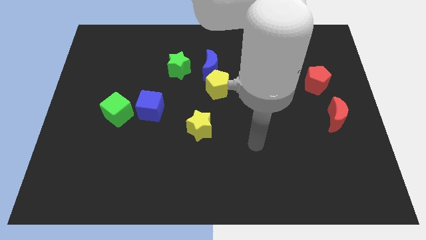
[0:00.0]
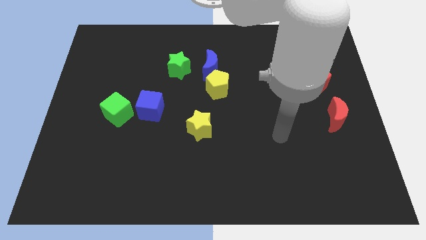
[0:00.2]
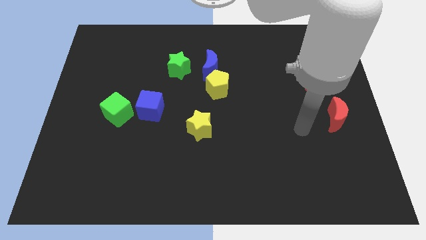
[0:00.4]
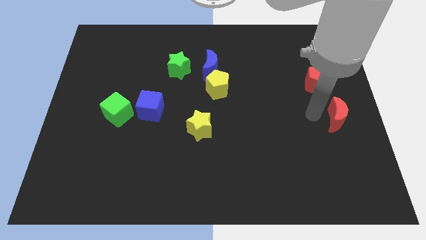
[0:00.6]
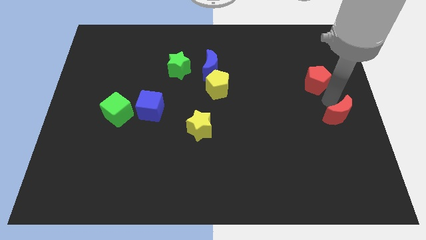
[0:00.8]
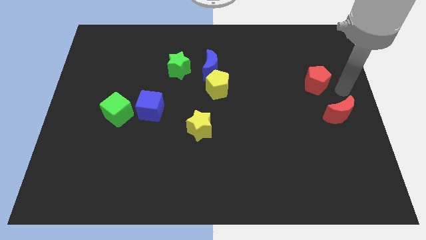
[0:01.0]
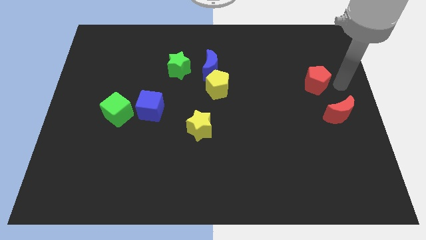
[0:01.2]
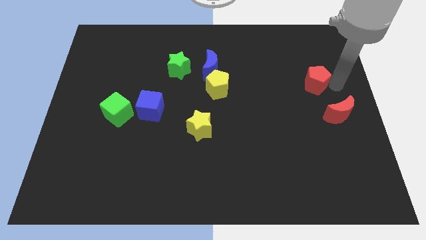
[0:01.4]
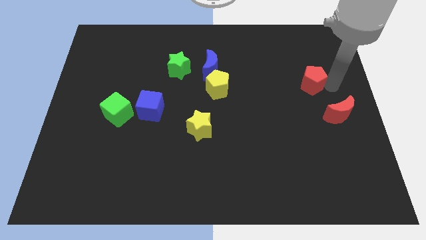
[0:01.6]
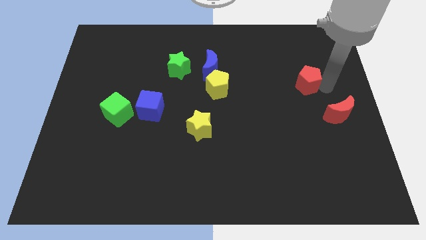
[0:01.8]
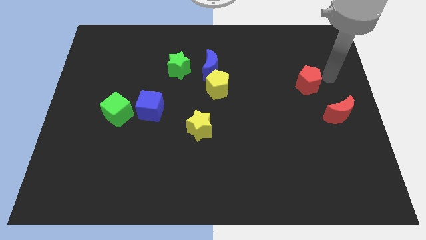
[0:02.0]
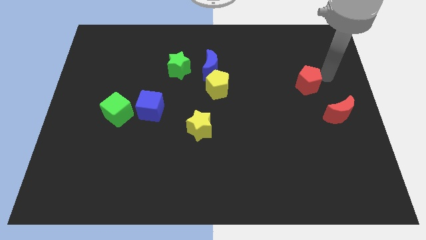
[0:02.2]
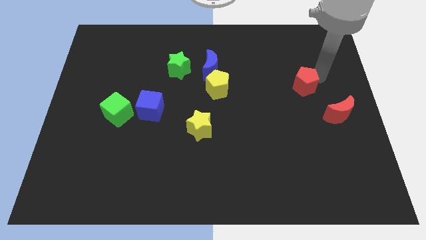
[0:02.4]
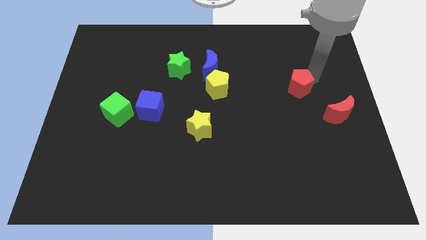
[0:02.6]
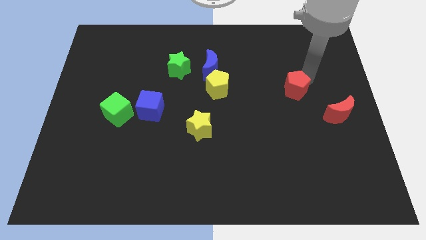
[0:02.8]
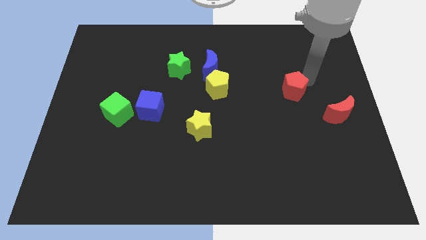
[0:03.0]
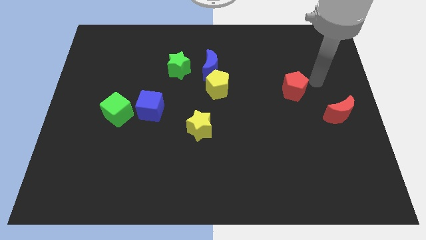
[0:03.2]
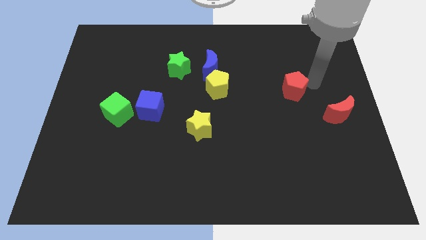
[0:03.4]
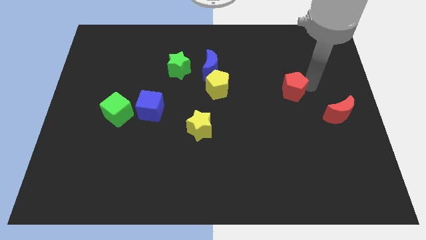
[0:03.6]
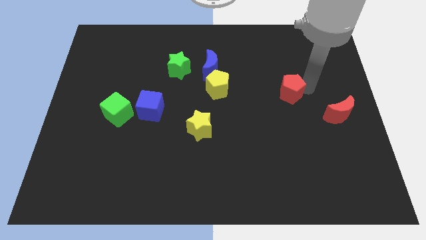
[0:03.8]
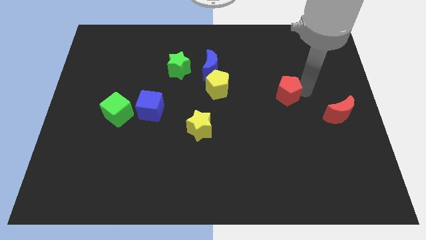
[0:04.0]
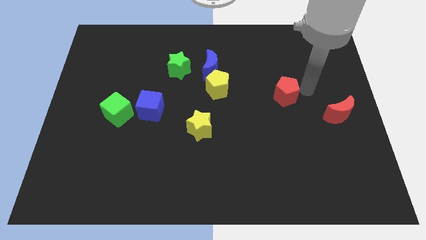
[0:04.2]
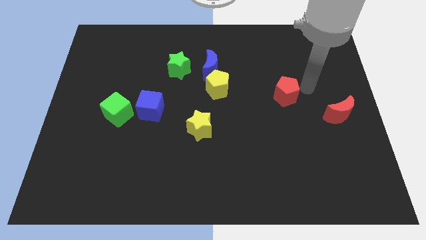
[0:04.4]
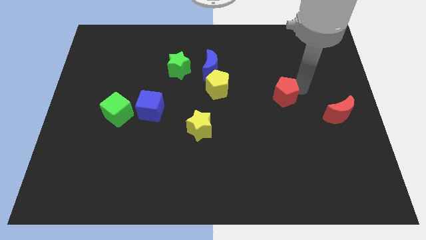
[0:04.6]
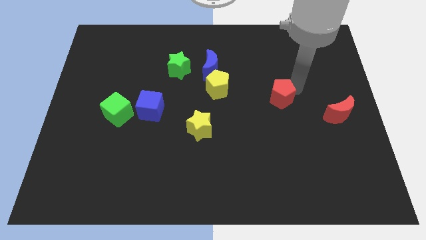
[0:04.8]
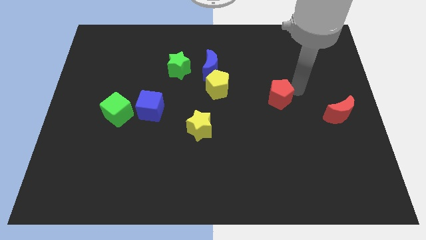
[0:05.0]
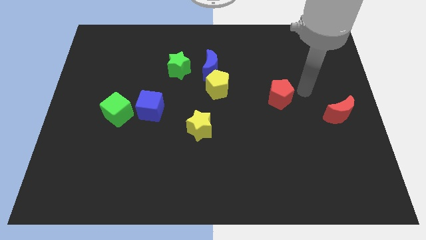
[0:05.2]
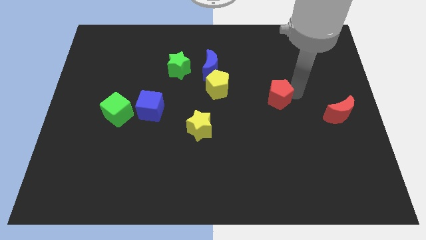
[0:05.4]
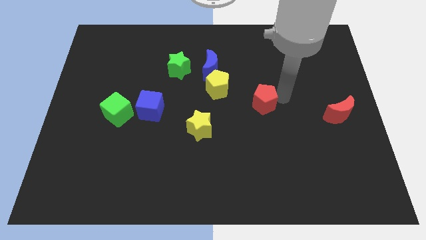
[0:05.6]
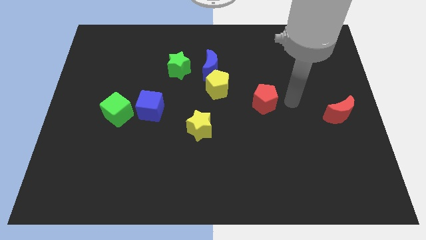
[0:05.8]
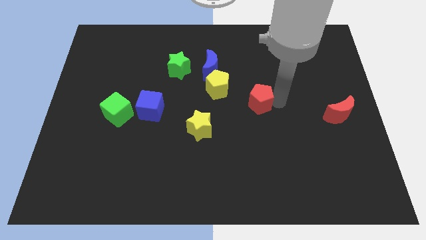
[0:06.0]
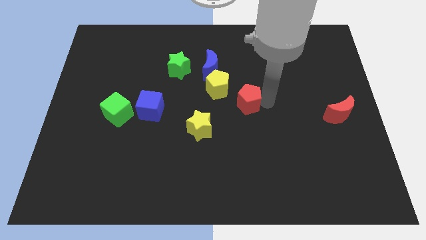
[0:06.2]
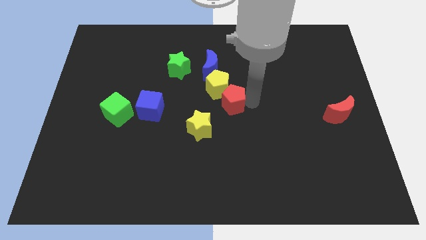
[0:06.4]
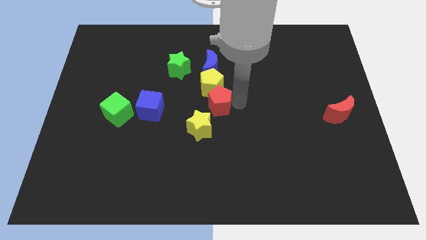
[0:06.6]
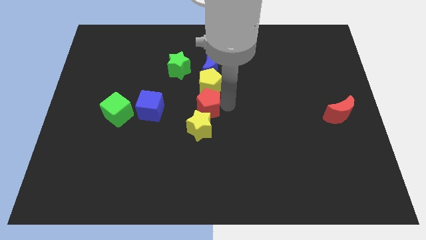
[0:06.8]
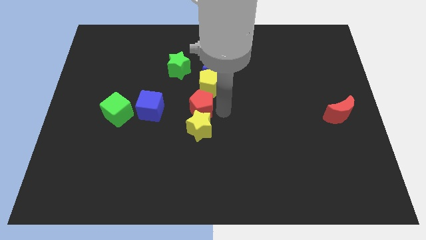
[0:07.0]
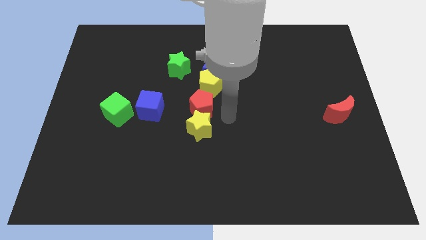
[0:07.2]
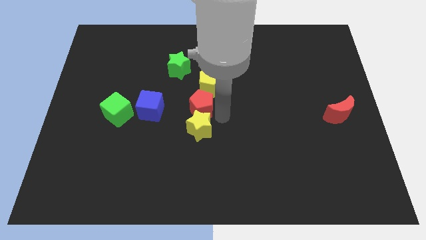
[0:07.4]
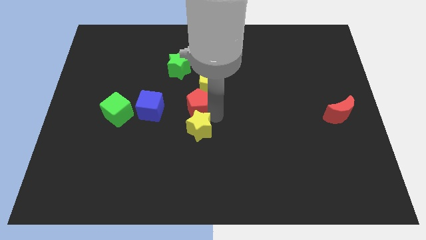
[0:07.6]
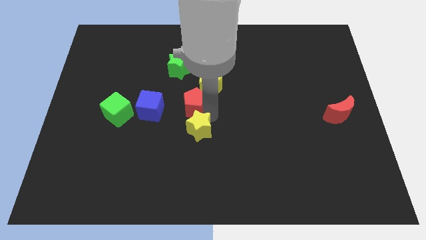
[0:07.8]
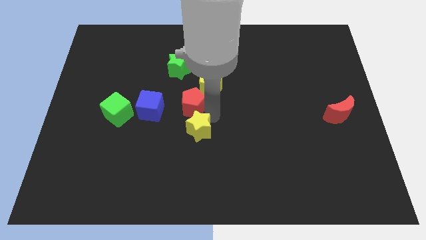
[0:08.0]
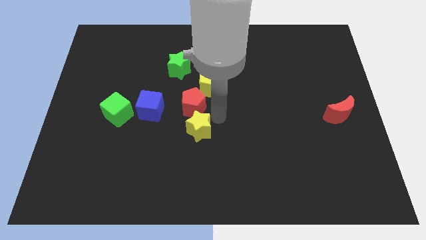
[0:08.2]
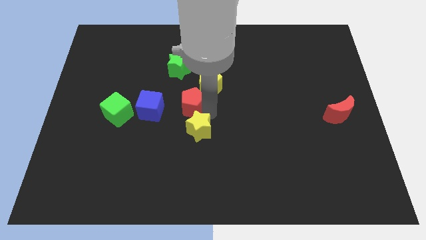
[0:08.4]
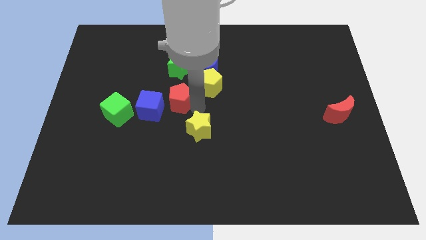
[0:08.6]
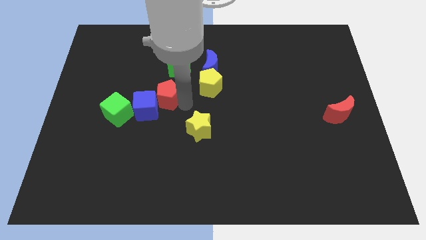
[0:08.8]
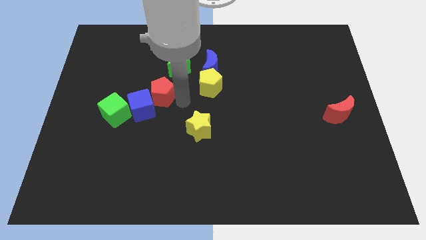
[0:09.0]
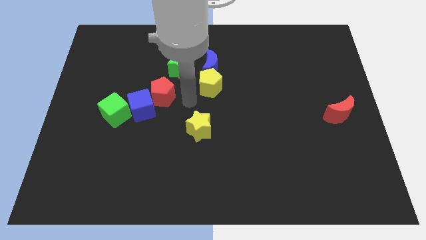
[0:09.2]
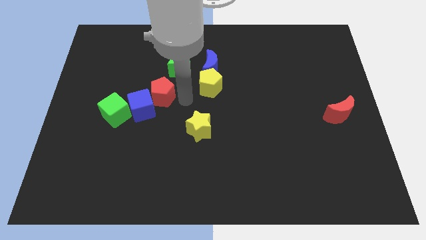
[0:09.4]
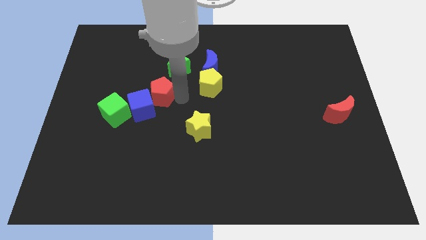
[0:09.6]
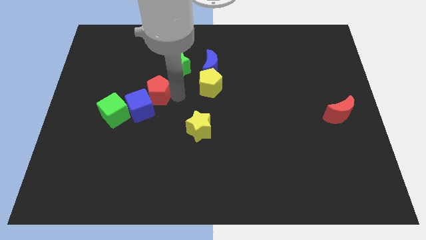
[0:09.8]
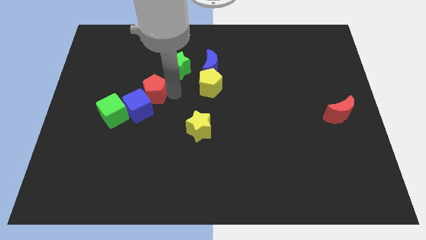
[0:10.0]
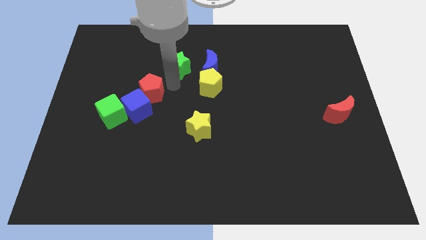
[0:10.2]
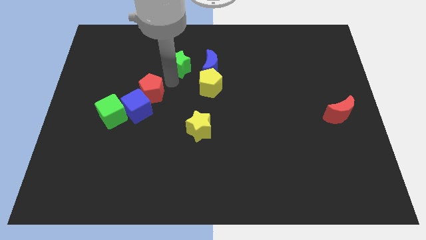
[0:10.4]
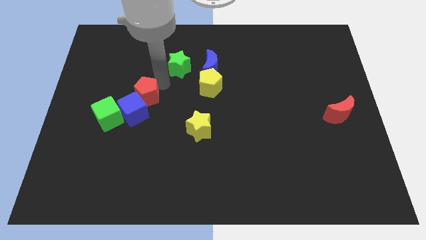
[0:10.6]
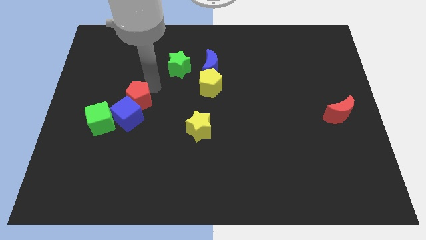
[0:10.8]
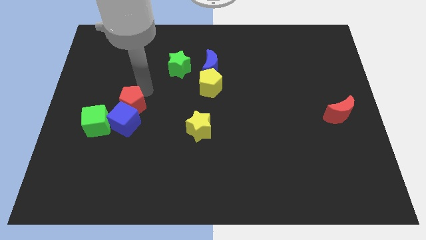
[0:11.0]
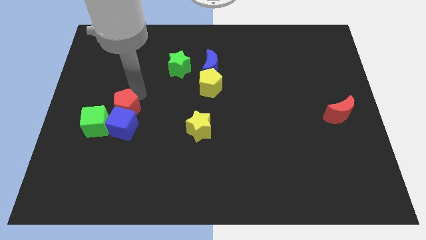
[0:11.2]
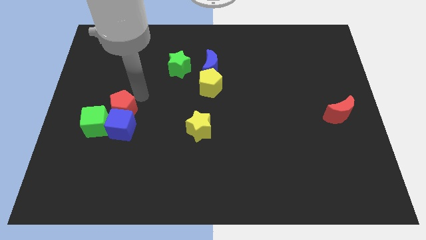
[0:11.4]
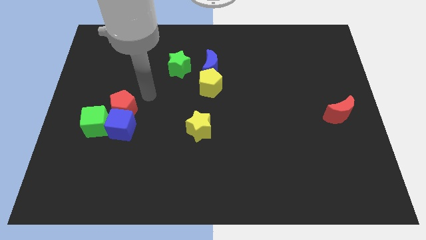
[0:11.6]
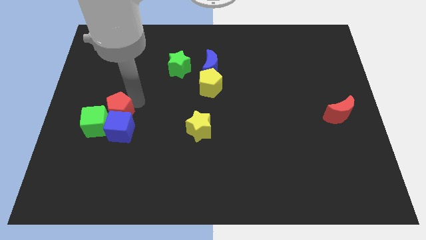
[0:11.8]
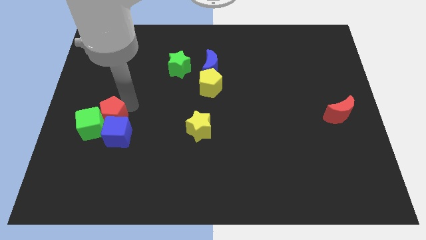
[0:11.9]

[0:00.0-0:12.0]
put the red pentagon to the green cube
